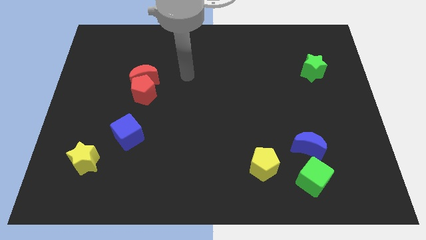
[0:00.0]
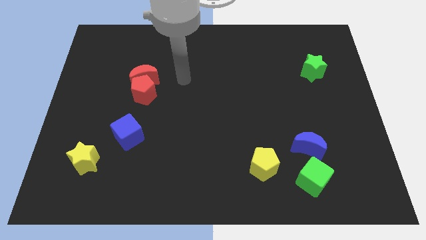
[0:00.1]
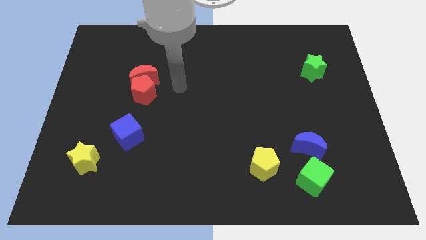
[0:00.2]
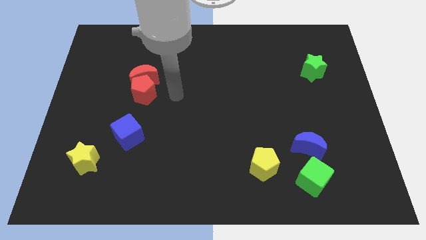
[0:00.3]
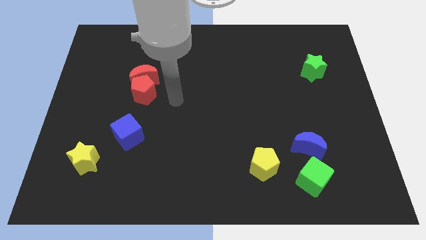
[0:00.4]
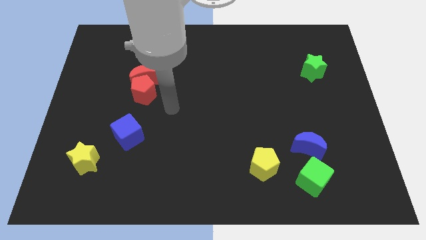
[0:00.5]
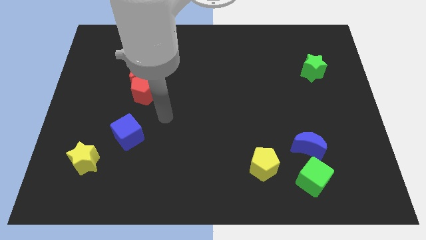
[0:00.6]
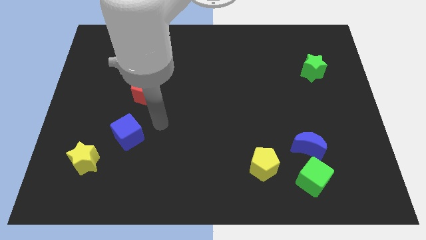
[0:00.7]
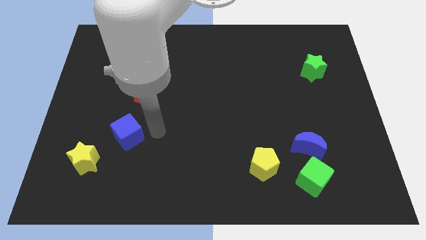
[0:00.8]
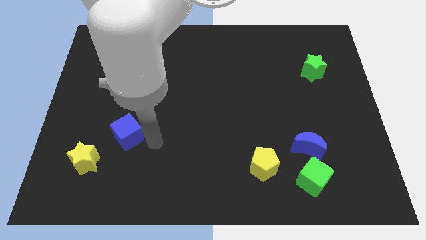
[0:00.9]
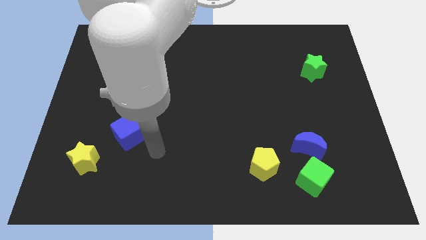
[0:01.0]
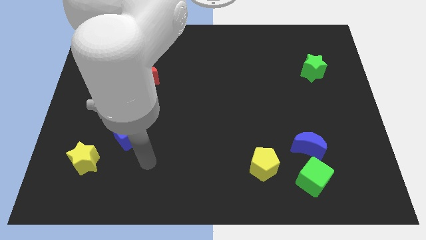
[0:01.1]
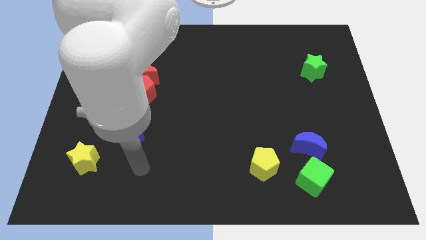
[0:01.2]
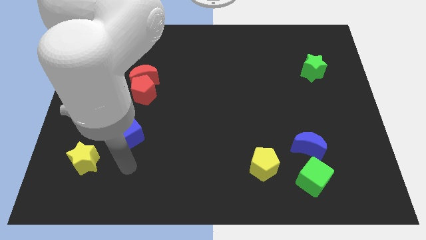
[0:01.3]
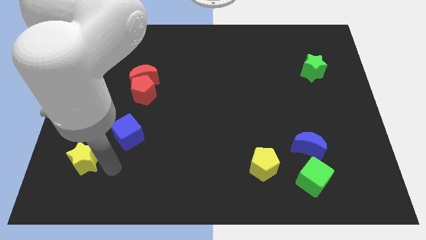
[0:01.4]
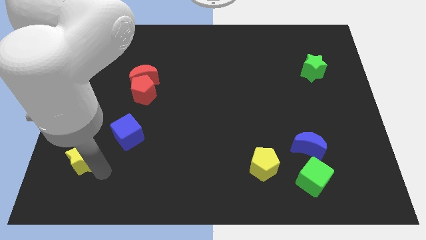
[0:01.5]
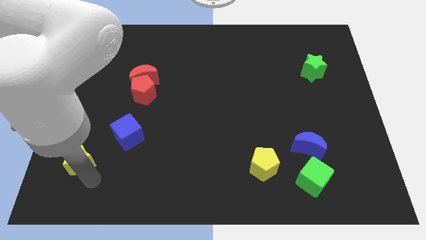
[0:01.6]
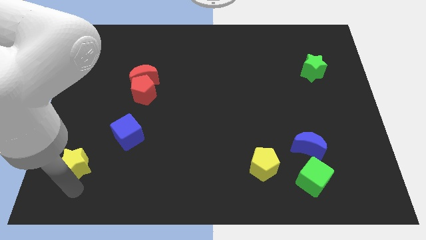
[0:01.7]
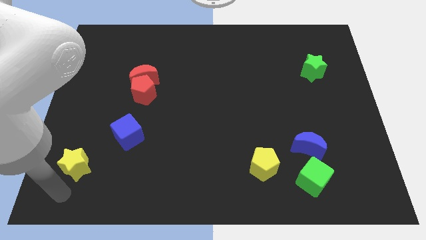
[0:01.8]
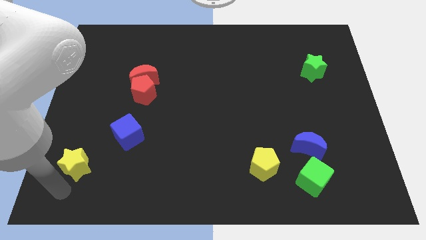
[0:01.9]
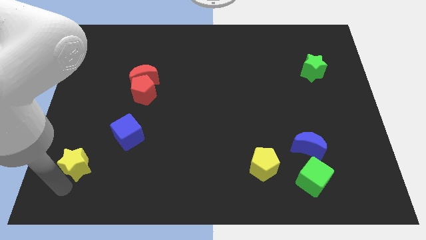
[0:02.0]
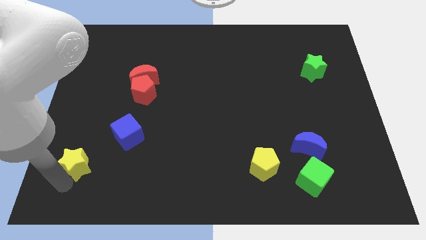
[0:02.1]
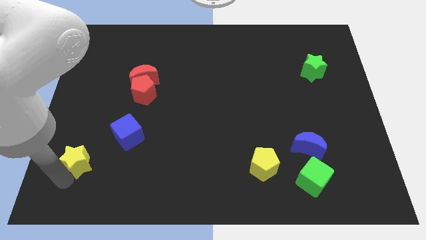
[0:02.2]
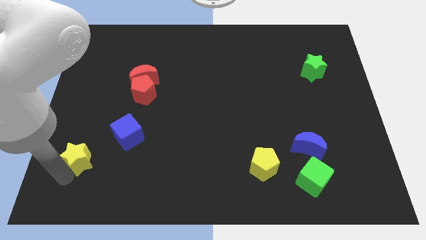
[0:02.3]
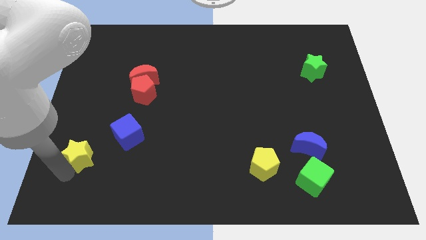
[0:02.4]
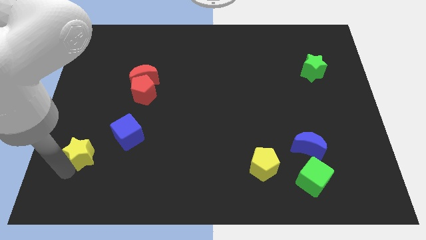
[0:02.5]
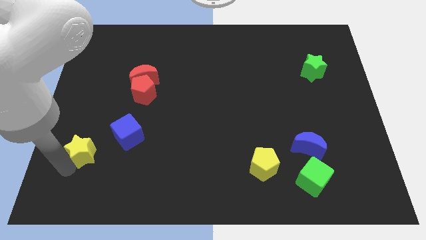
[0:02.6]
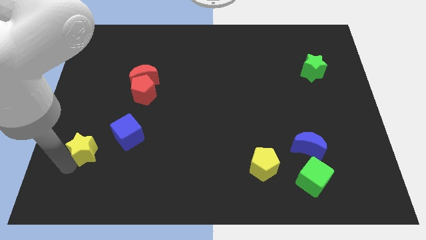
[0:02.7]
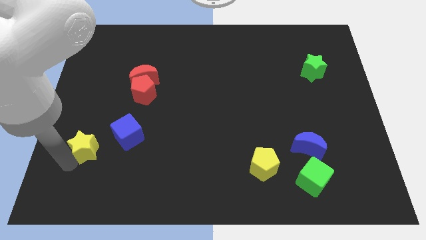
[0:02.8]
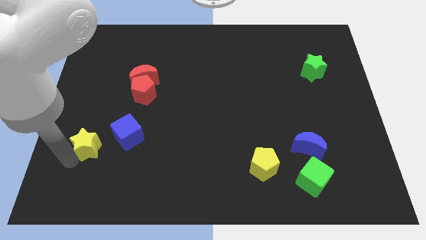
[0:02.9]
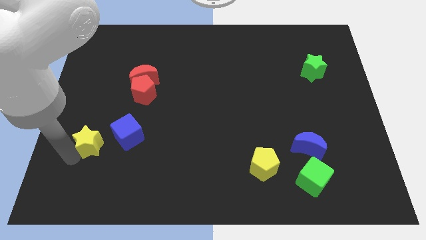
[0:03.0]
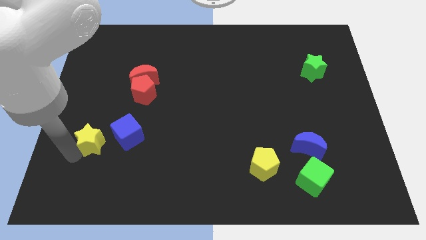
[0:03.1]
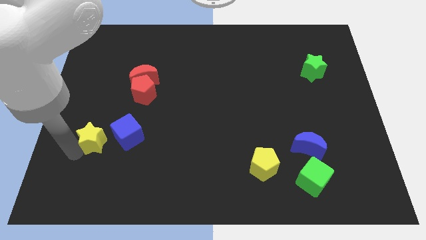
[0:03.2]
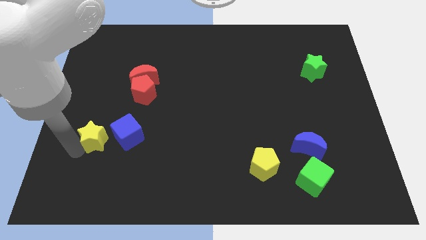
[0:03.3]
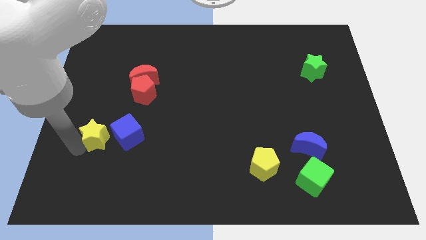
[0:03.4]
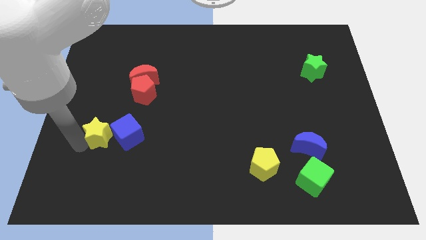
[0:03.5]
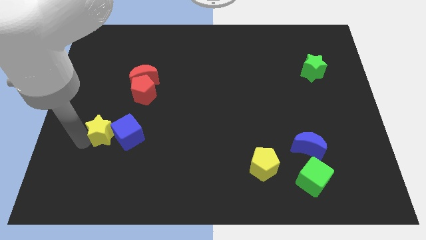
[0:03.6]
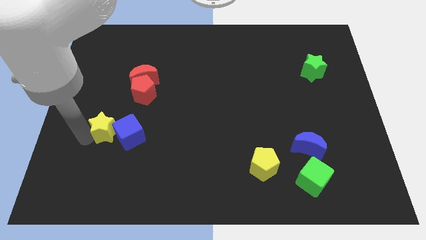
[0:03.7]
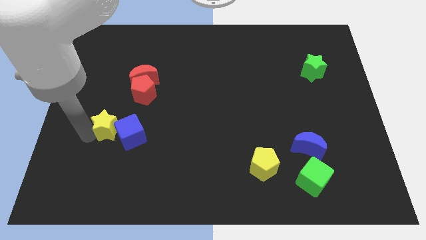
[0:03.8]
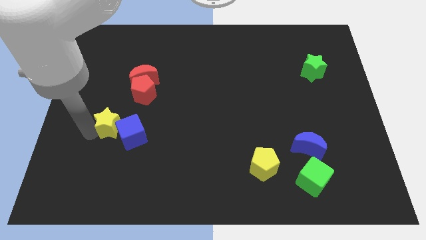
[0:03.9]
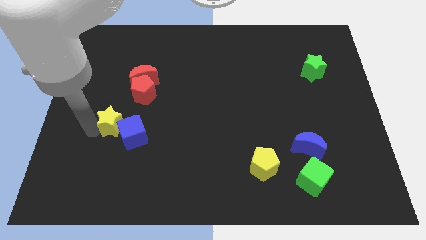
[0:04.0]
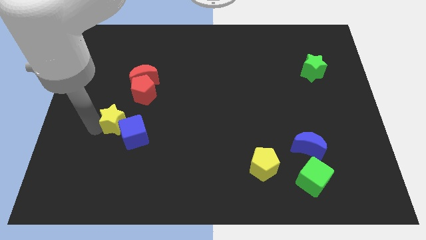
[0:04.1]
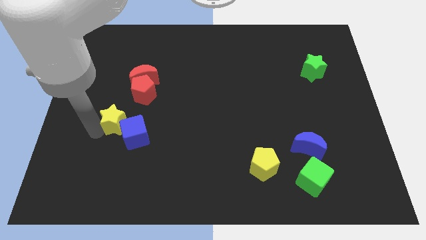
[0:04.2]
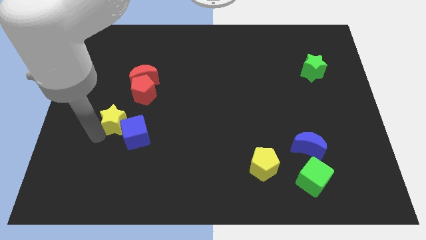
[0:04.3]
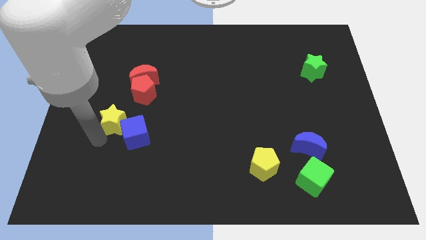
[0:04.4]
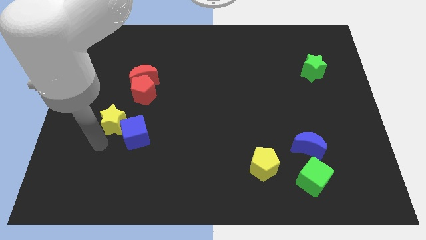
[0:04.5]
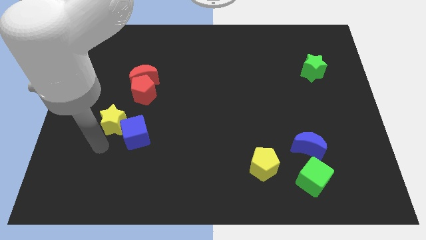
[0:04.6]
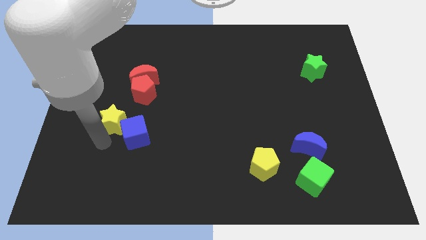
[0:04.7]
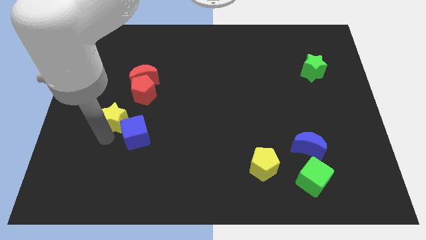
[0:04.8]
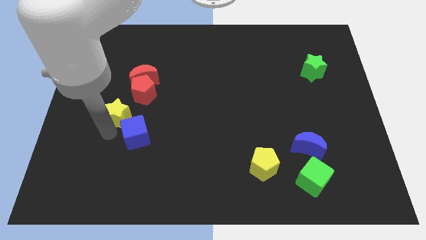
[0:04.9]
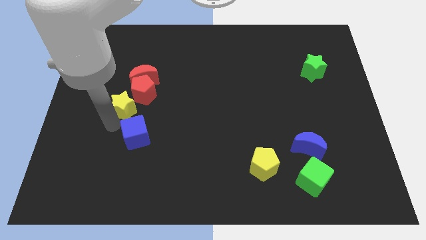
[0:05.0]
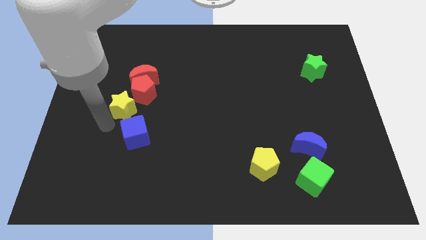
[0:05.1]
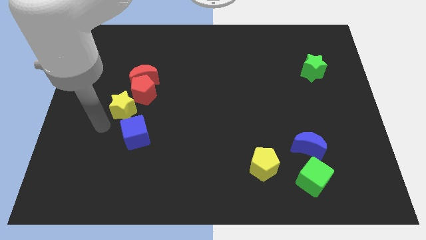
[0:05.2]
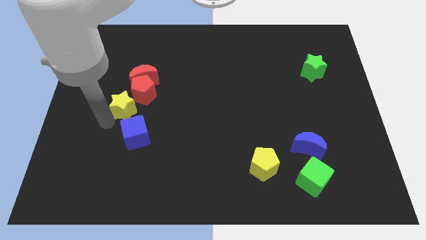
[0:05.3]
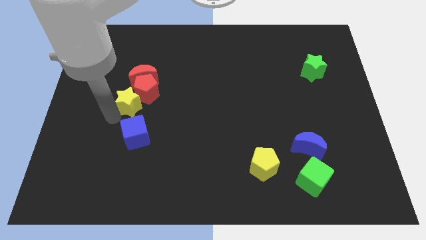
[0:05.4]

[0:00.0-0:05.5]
put the yellow star next to the red pentagon

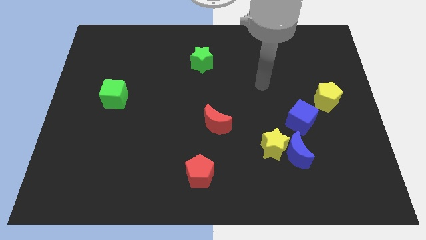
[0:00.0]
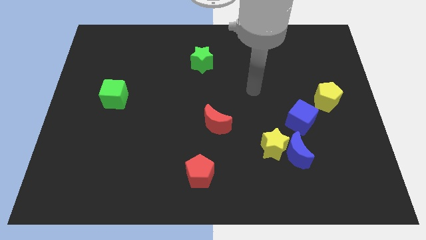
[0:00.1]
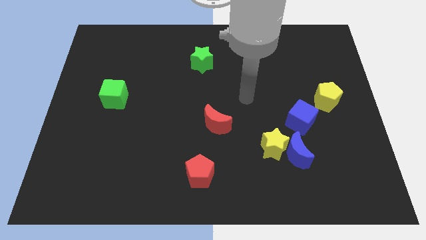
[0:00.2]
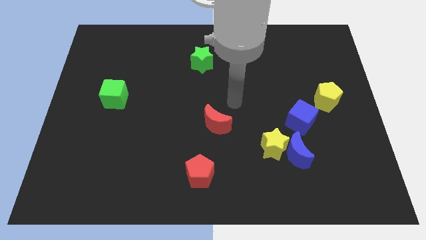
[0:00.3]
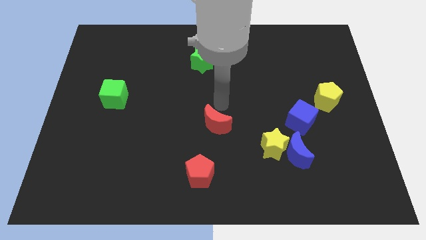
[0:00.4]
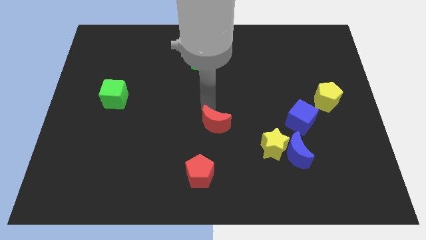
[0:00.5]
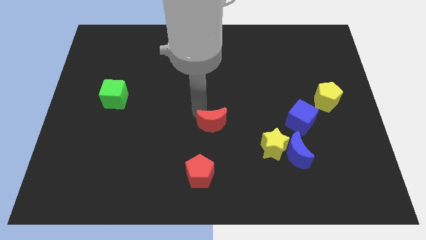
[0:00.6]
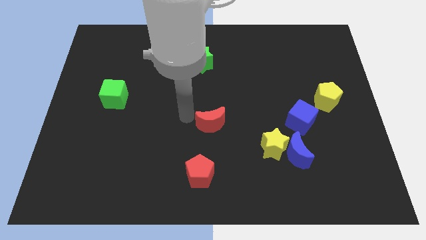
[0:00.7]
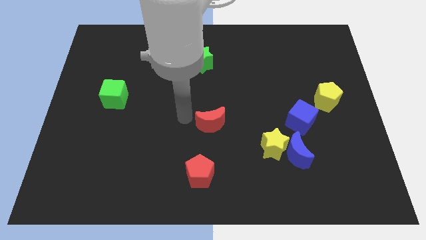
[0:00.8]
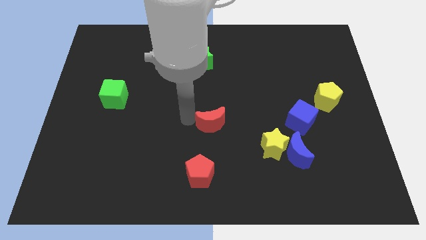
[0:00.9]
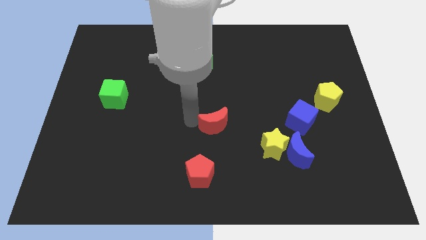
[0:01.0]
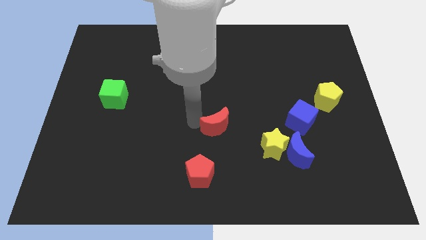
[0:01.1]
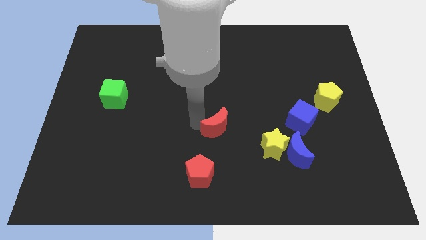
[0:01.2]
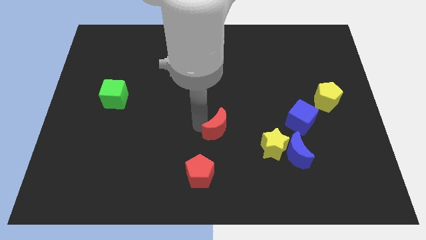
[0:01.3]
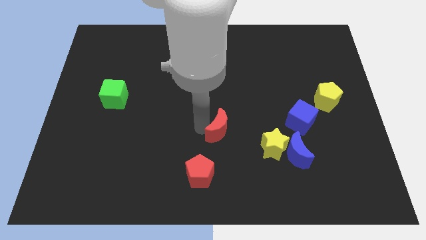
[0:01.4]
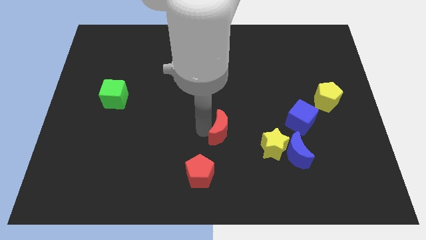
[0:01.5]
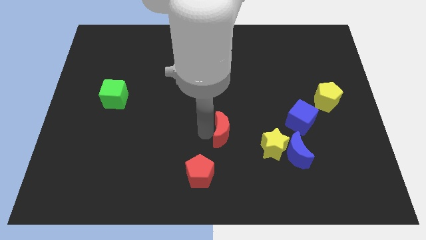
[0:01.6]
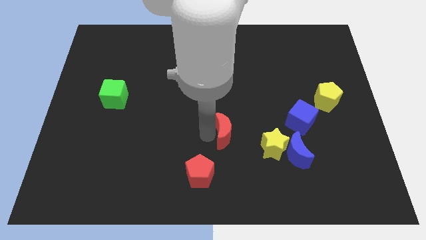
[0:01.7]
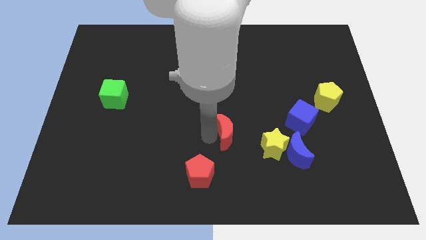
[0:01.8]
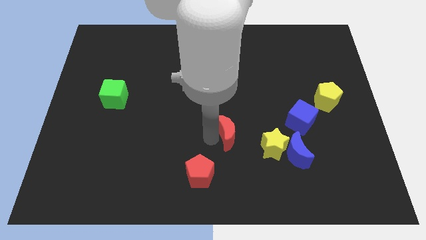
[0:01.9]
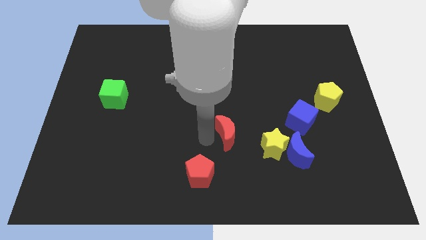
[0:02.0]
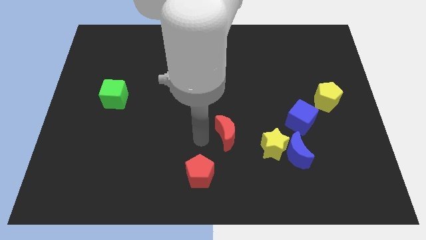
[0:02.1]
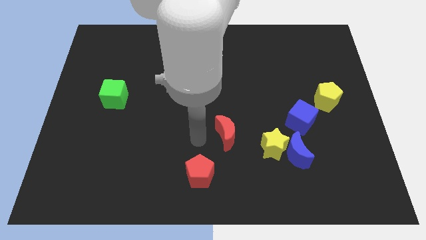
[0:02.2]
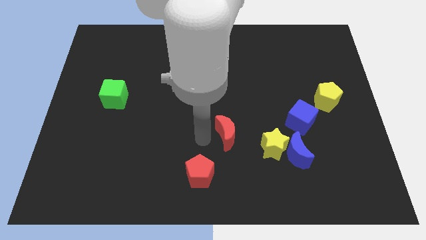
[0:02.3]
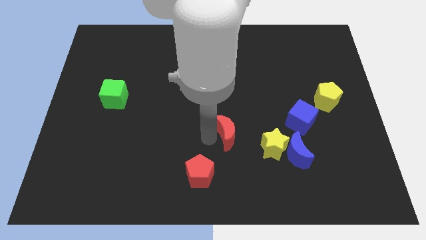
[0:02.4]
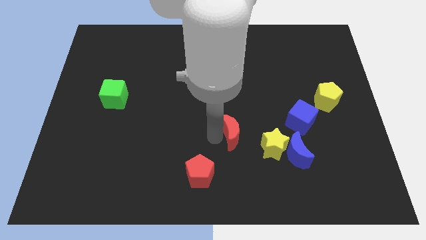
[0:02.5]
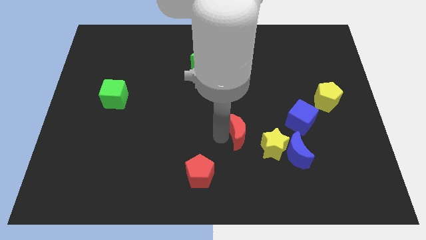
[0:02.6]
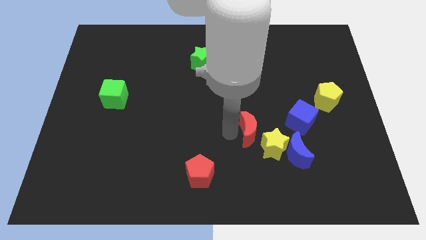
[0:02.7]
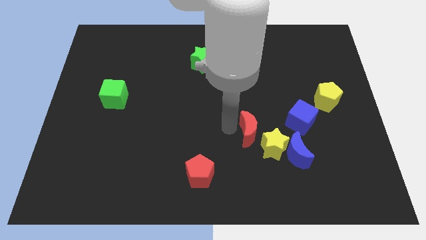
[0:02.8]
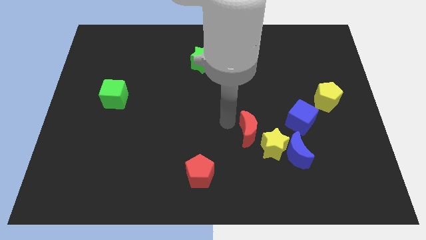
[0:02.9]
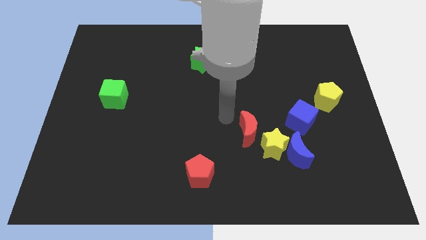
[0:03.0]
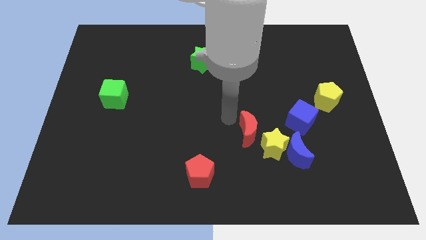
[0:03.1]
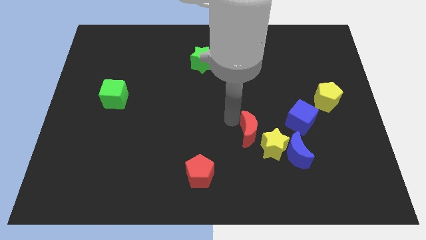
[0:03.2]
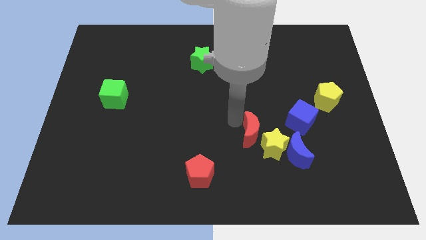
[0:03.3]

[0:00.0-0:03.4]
put the red moon towards the yellow star
